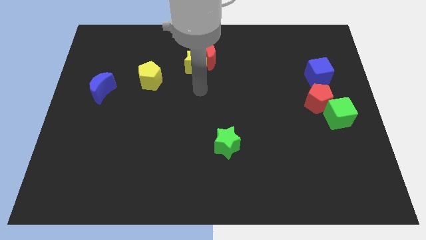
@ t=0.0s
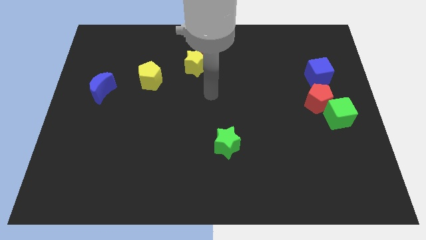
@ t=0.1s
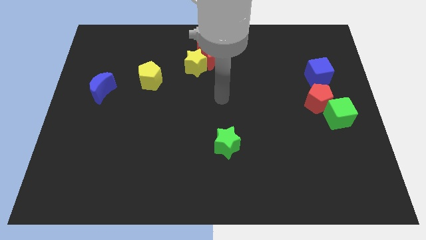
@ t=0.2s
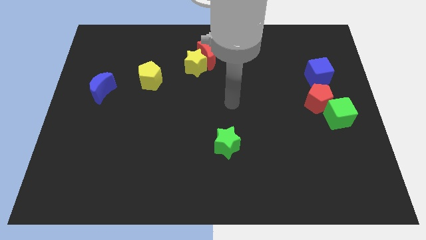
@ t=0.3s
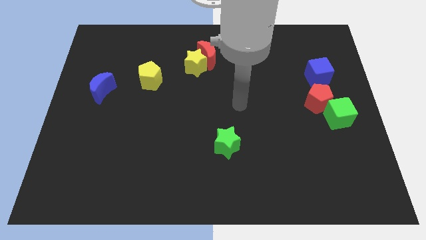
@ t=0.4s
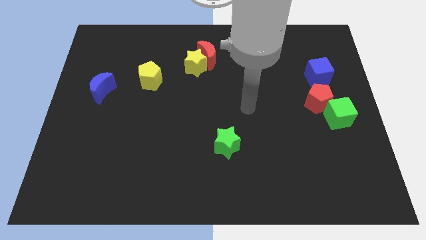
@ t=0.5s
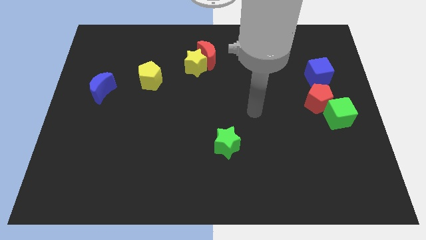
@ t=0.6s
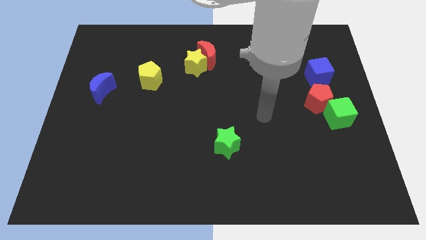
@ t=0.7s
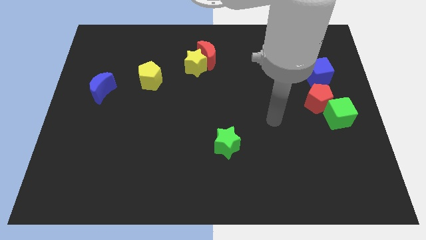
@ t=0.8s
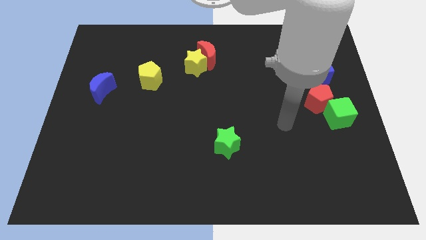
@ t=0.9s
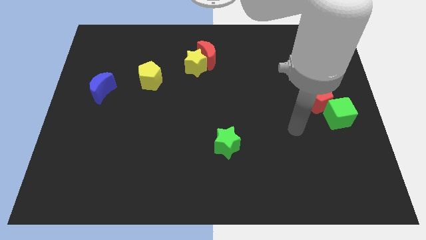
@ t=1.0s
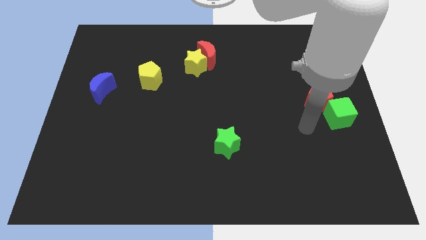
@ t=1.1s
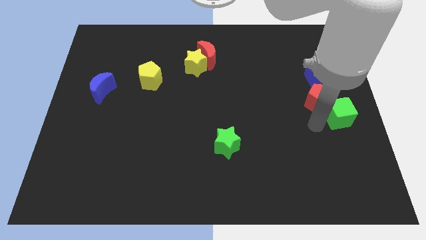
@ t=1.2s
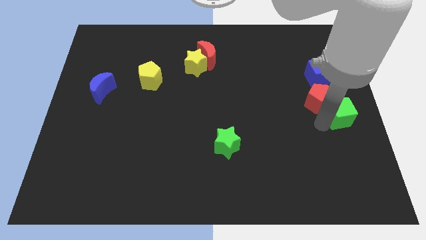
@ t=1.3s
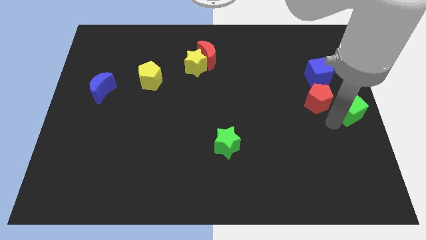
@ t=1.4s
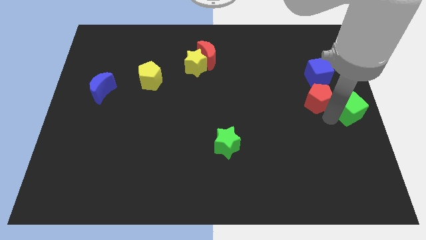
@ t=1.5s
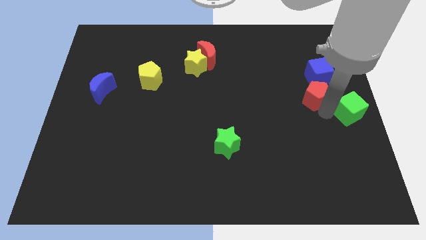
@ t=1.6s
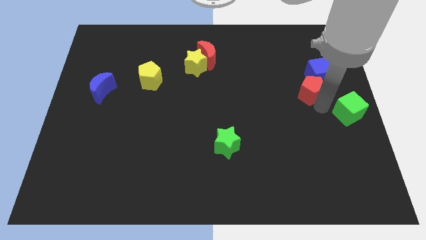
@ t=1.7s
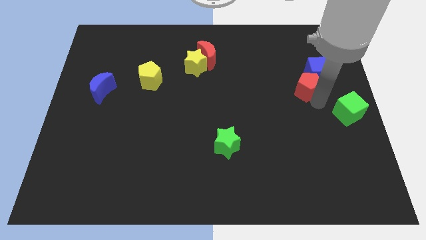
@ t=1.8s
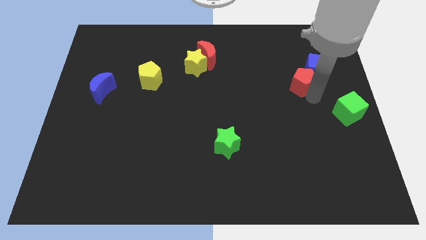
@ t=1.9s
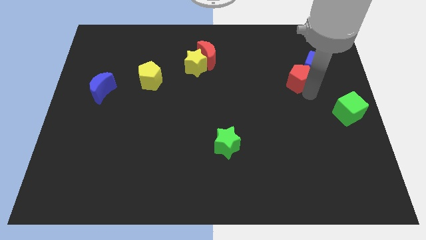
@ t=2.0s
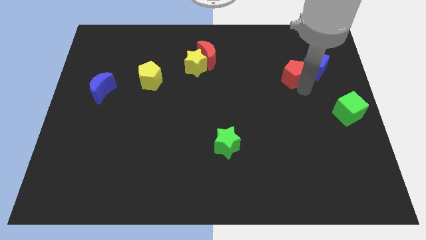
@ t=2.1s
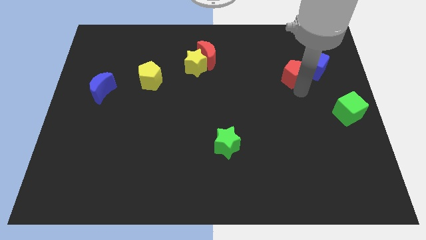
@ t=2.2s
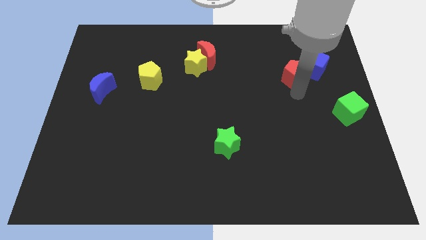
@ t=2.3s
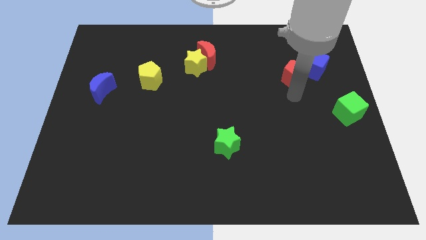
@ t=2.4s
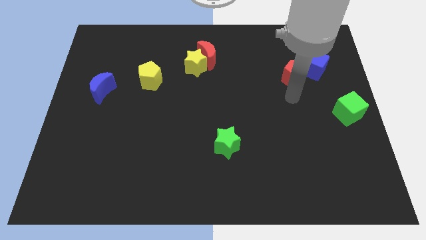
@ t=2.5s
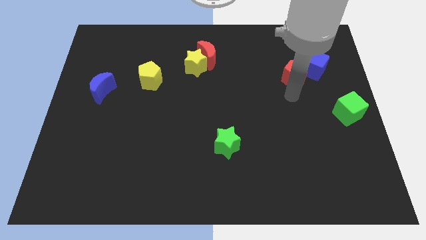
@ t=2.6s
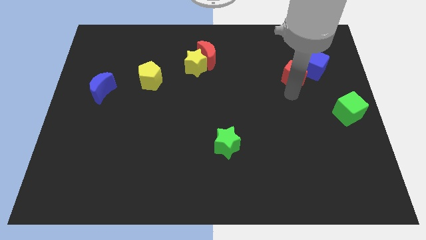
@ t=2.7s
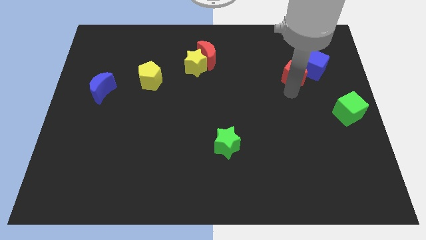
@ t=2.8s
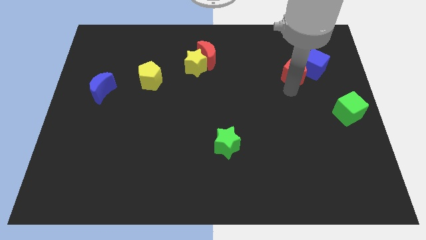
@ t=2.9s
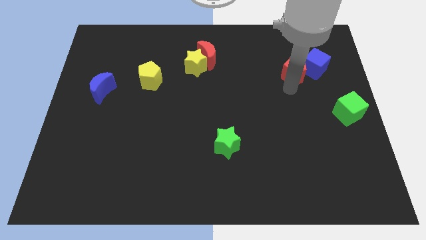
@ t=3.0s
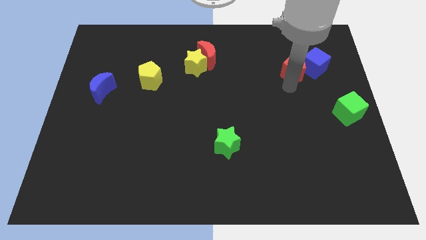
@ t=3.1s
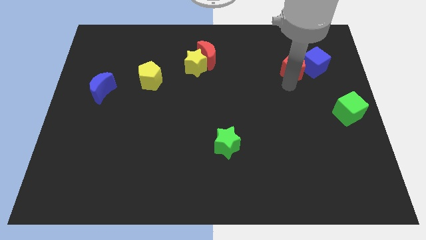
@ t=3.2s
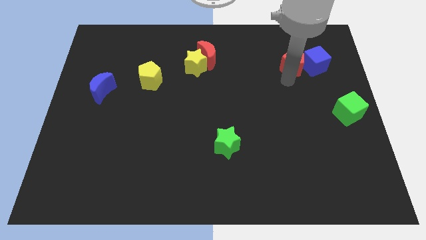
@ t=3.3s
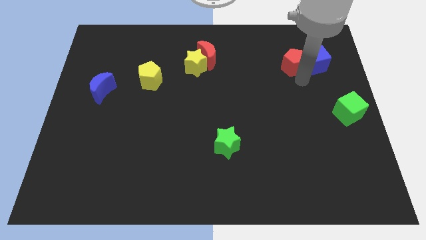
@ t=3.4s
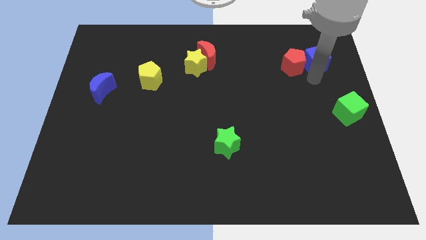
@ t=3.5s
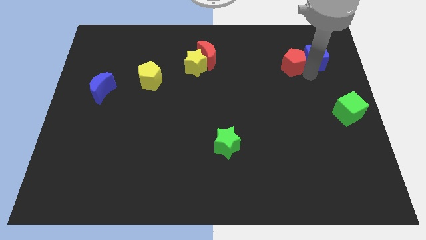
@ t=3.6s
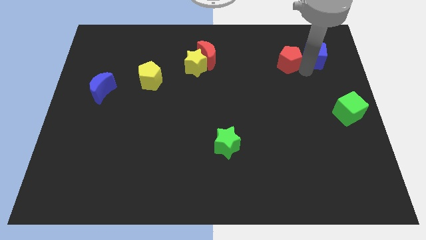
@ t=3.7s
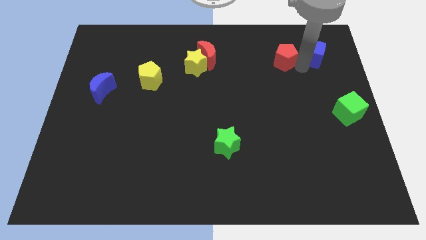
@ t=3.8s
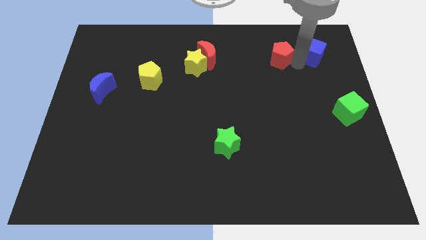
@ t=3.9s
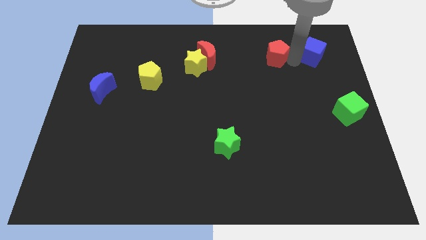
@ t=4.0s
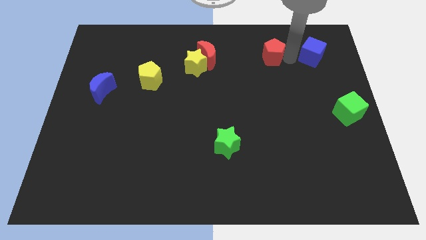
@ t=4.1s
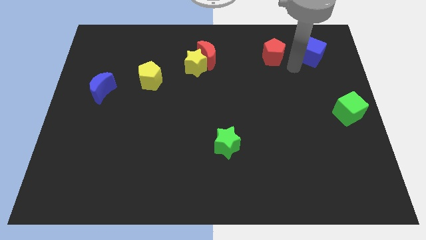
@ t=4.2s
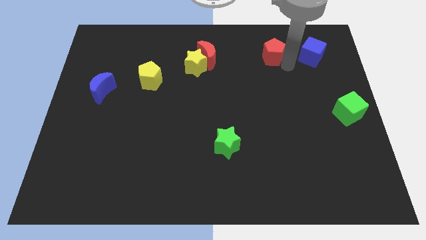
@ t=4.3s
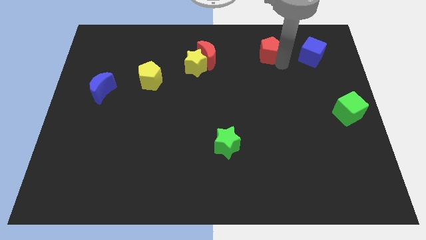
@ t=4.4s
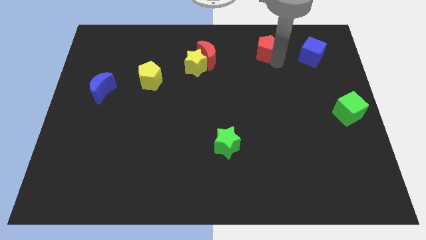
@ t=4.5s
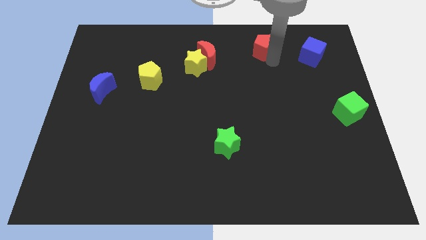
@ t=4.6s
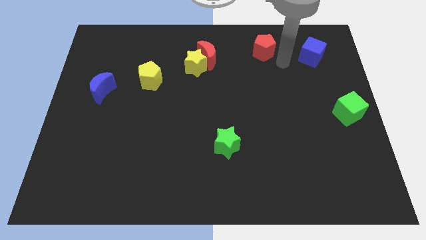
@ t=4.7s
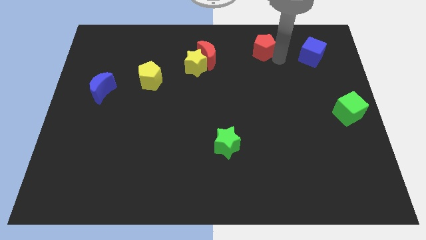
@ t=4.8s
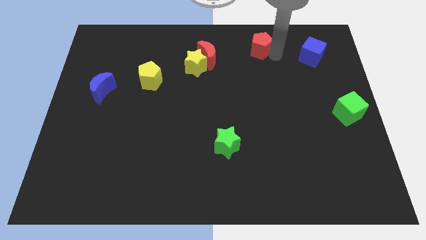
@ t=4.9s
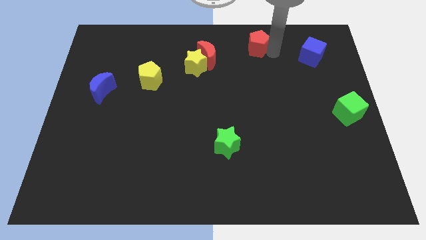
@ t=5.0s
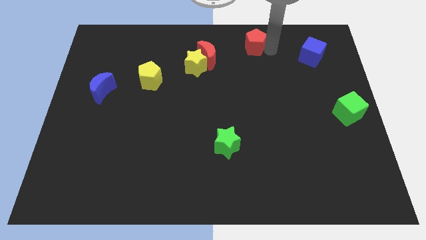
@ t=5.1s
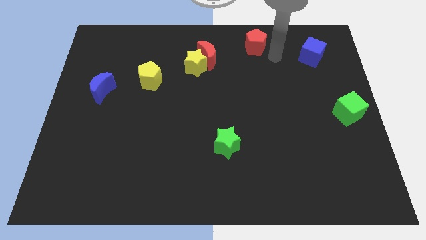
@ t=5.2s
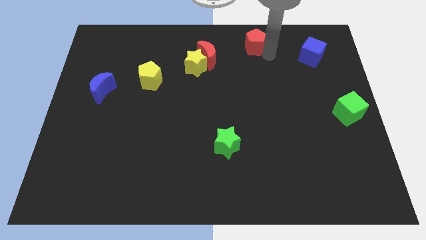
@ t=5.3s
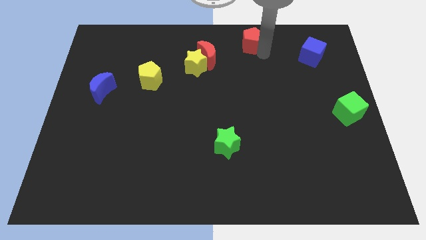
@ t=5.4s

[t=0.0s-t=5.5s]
slide the red pentagon to the towards your base
